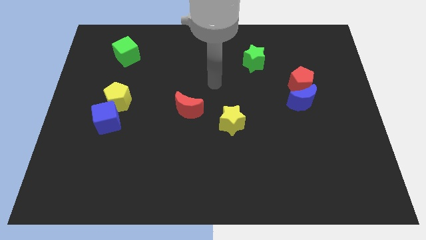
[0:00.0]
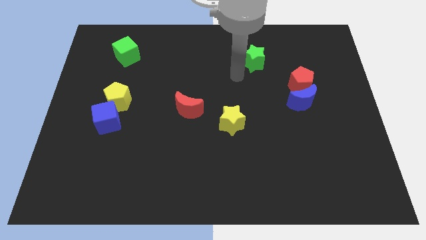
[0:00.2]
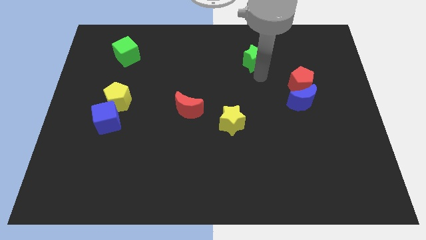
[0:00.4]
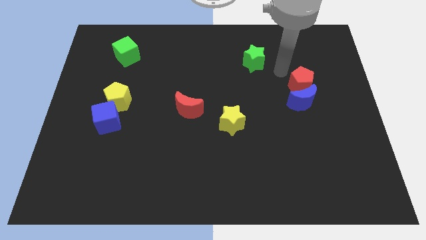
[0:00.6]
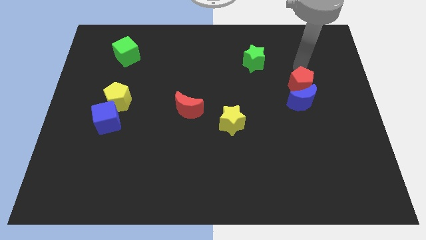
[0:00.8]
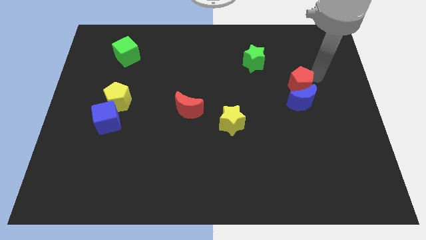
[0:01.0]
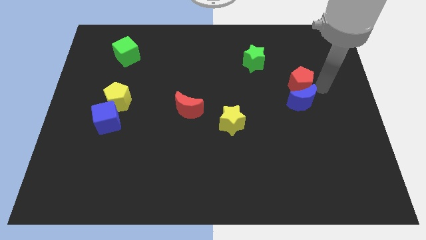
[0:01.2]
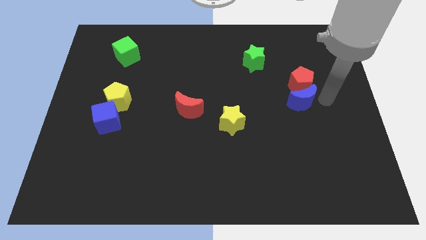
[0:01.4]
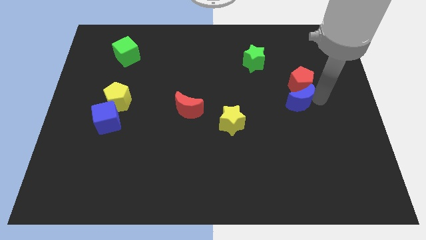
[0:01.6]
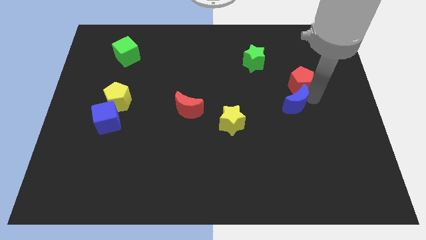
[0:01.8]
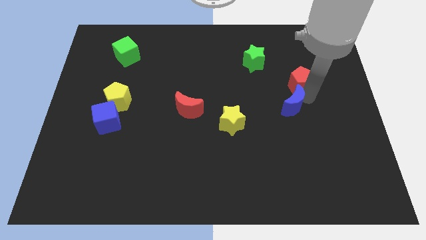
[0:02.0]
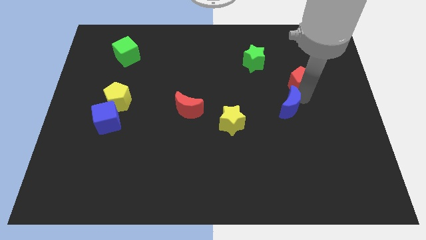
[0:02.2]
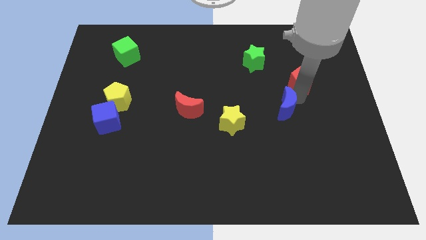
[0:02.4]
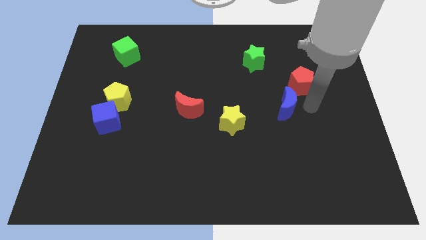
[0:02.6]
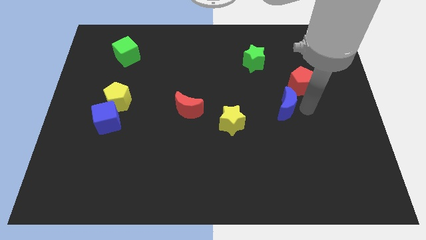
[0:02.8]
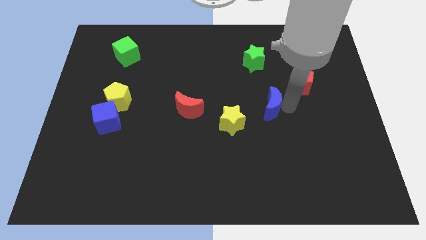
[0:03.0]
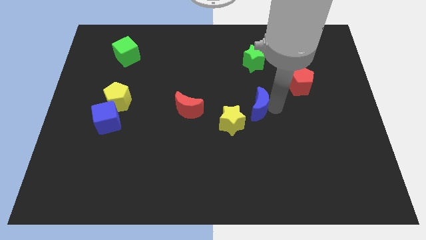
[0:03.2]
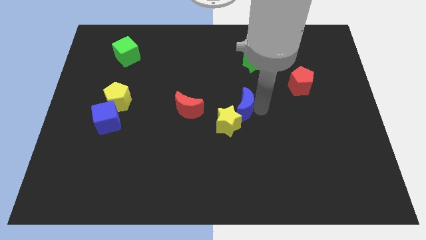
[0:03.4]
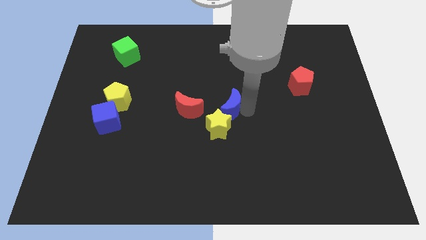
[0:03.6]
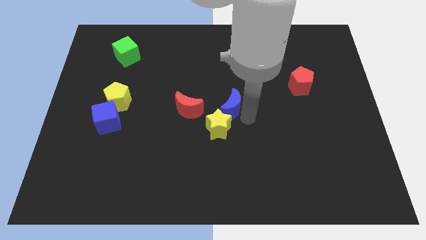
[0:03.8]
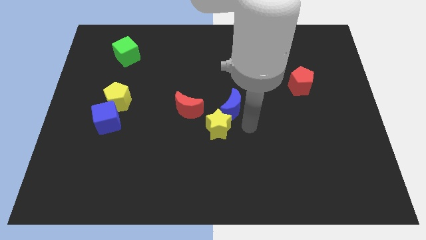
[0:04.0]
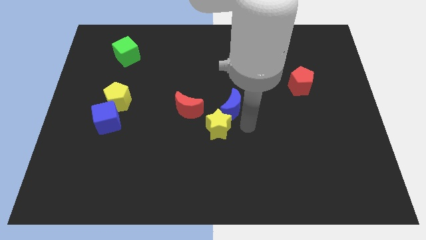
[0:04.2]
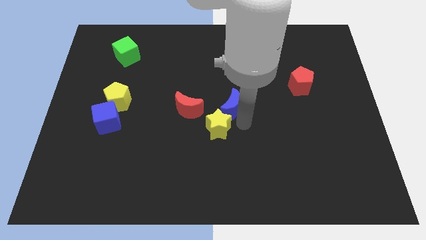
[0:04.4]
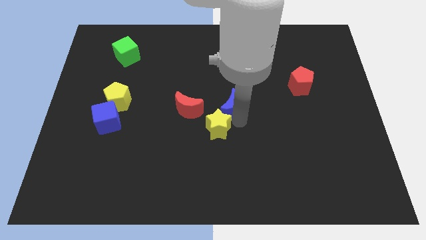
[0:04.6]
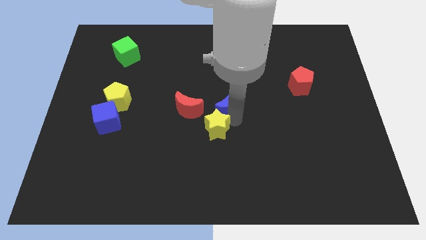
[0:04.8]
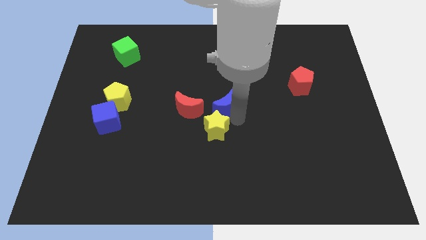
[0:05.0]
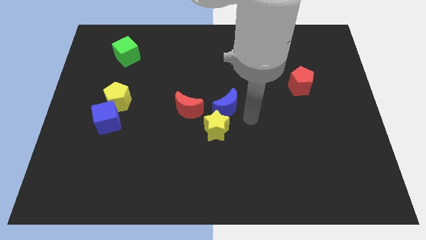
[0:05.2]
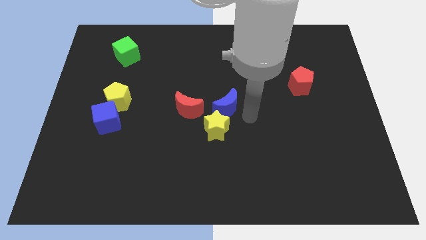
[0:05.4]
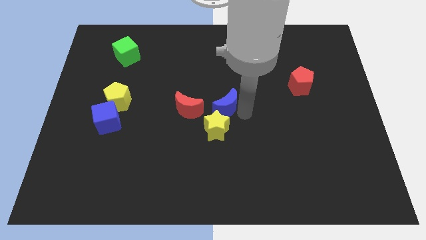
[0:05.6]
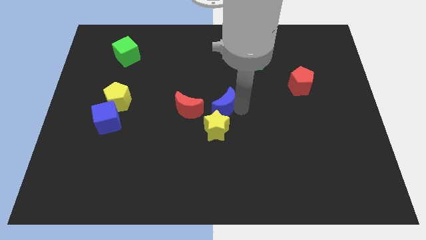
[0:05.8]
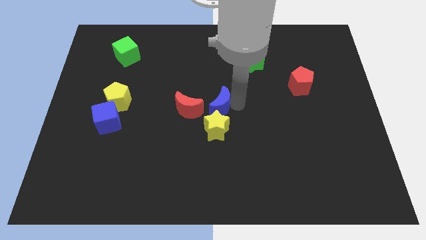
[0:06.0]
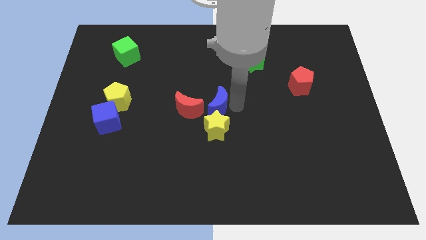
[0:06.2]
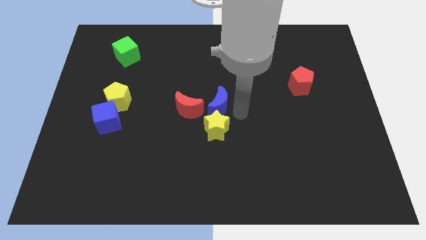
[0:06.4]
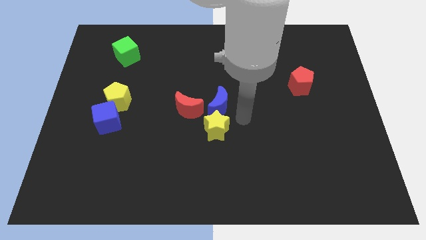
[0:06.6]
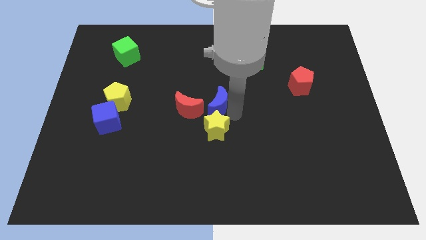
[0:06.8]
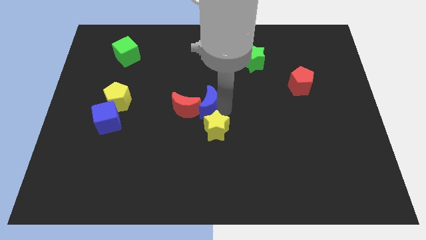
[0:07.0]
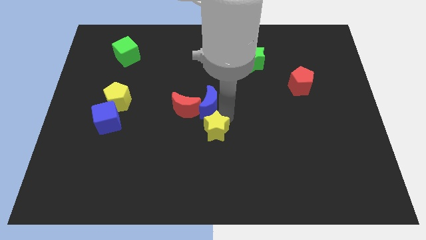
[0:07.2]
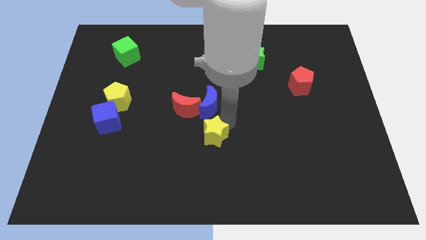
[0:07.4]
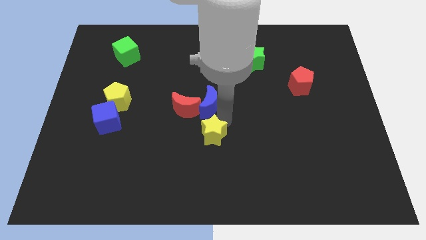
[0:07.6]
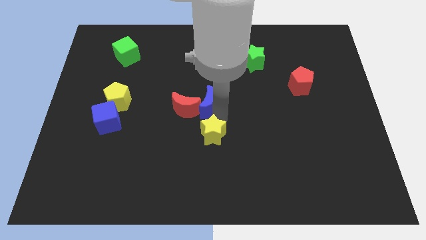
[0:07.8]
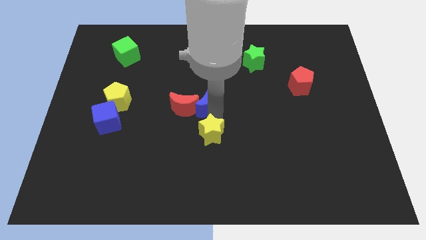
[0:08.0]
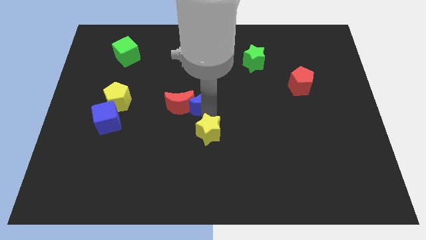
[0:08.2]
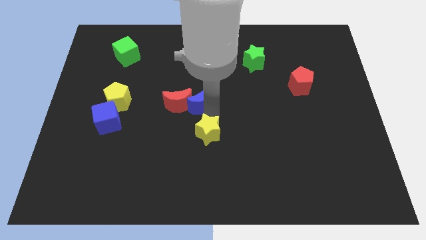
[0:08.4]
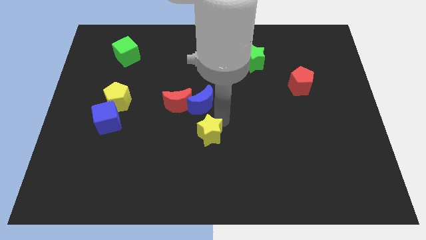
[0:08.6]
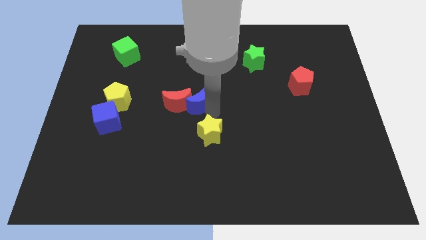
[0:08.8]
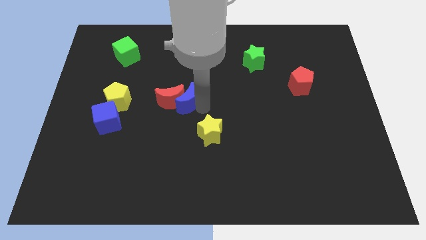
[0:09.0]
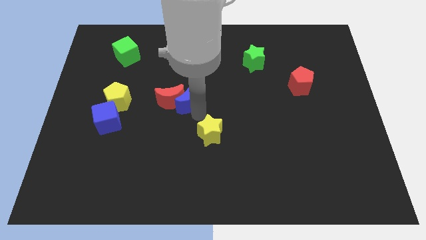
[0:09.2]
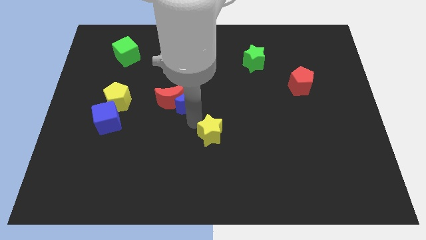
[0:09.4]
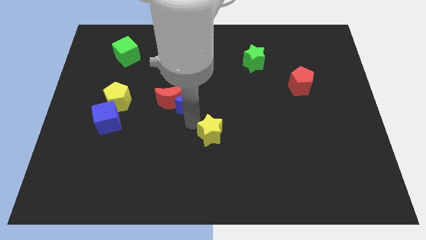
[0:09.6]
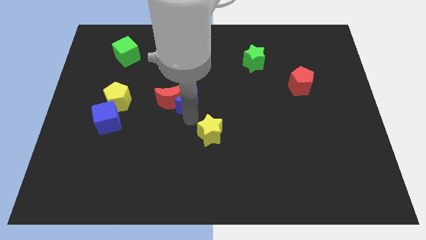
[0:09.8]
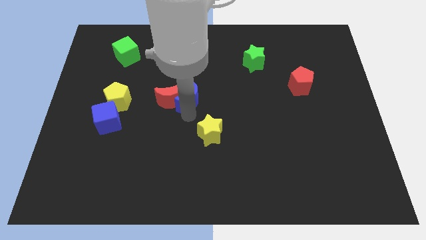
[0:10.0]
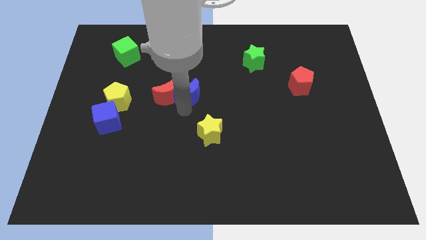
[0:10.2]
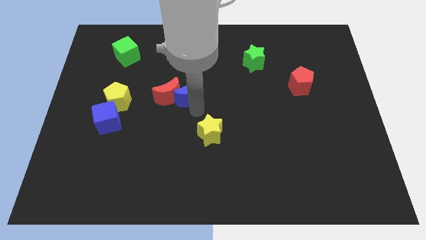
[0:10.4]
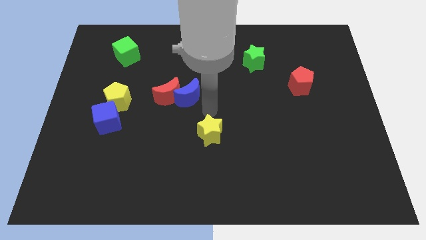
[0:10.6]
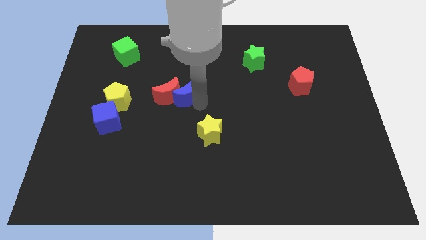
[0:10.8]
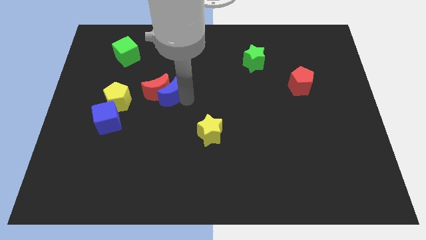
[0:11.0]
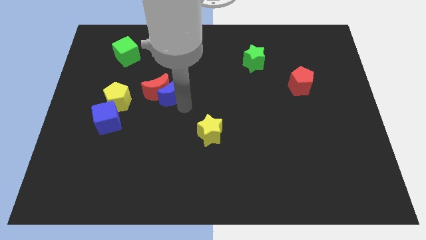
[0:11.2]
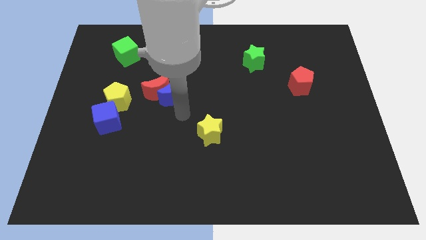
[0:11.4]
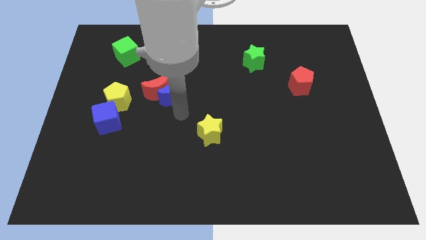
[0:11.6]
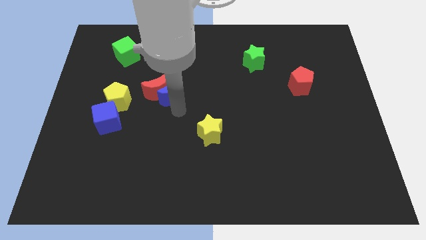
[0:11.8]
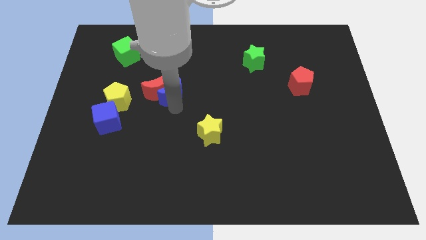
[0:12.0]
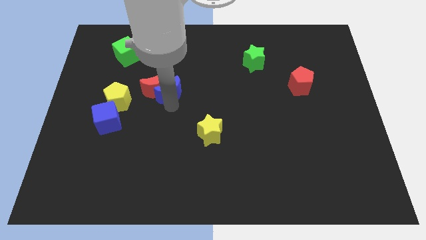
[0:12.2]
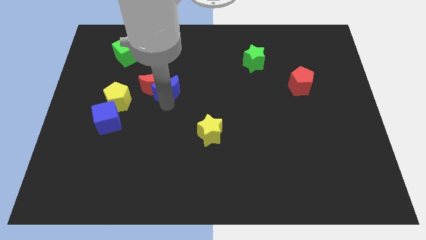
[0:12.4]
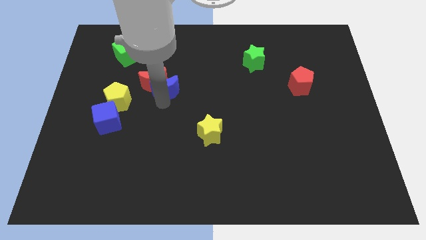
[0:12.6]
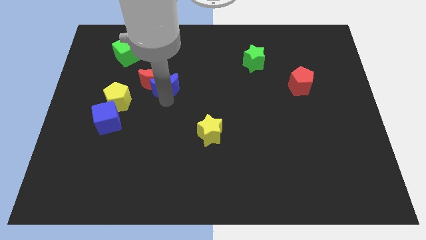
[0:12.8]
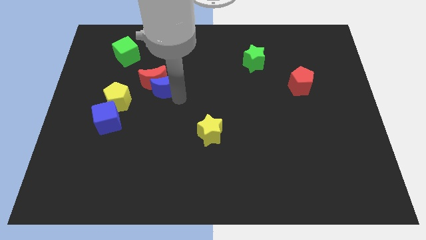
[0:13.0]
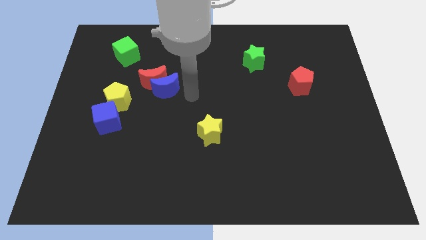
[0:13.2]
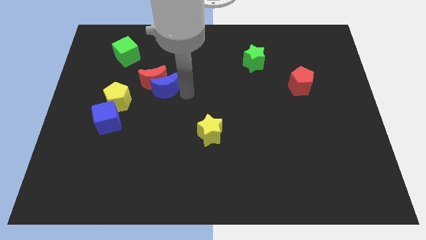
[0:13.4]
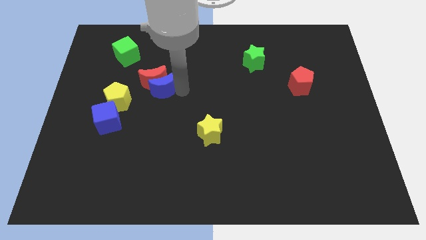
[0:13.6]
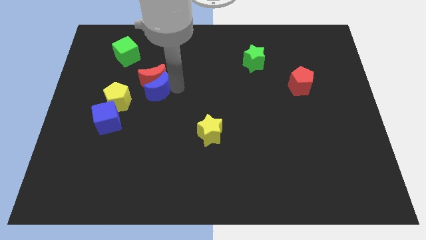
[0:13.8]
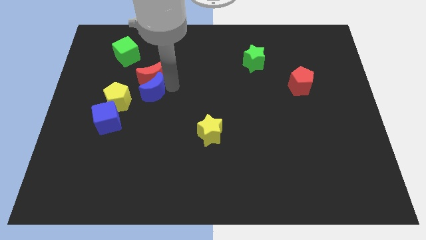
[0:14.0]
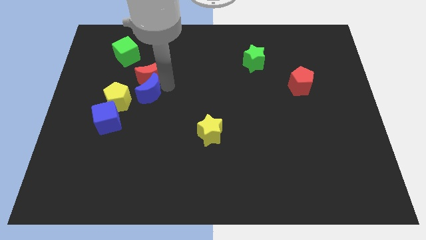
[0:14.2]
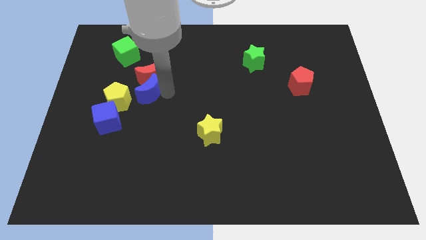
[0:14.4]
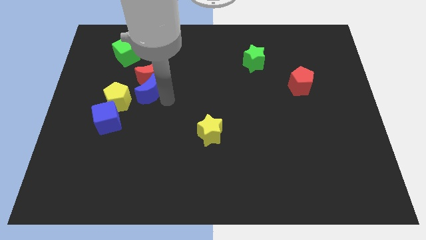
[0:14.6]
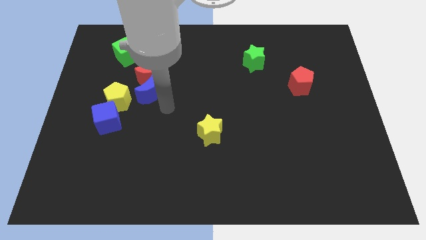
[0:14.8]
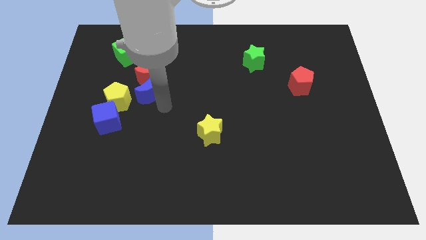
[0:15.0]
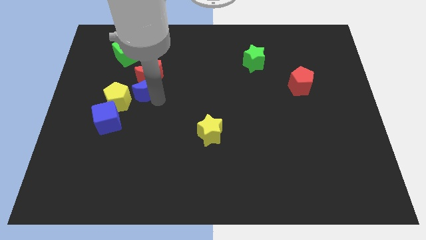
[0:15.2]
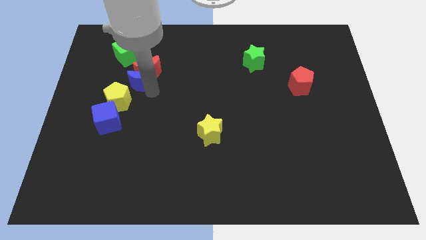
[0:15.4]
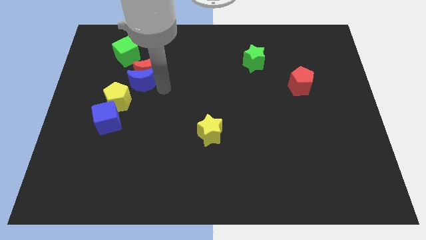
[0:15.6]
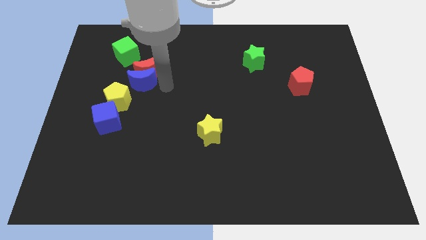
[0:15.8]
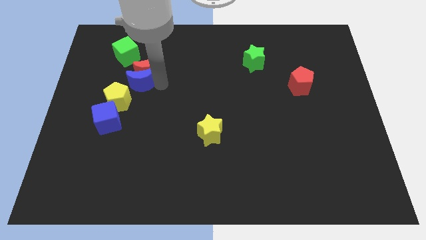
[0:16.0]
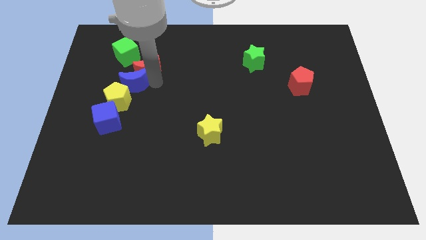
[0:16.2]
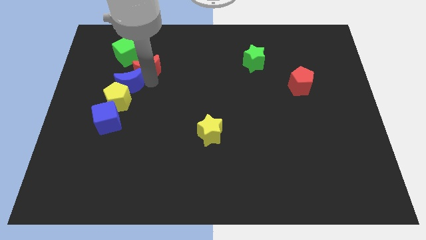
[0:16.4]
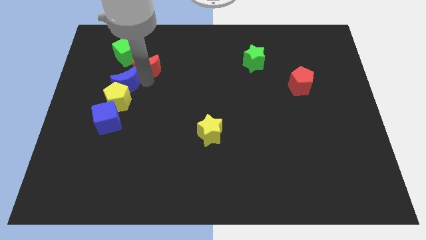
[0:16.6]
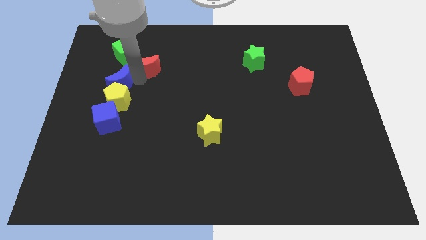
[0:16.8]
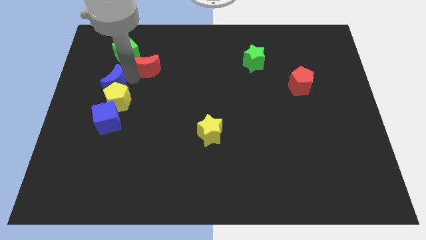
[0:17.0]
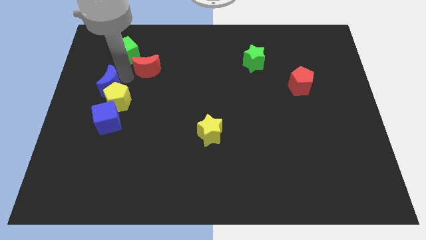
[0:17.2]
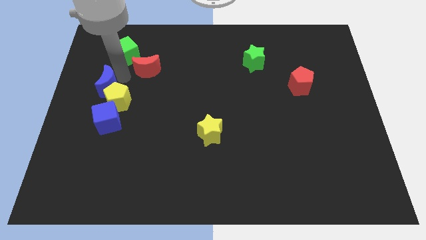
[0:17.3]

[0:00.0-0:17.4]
move the blue moon to the center left
